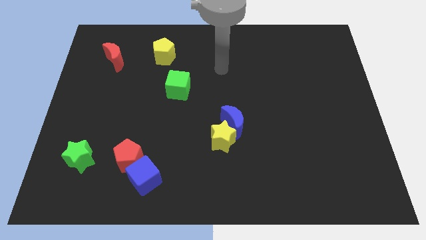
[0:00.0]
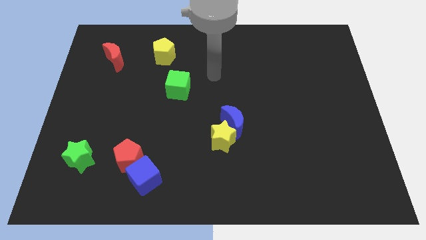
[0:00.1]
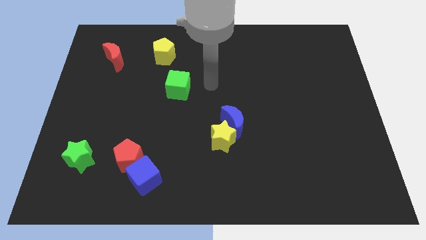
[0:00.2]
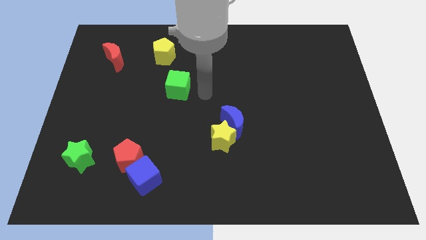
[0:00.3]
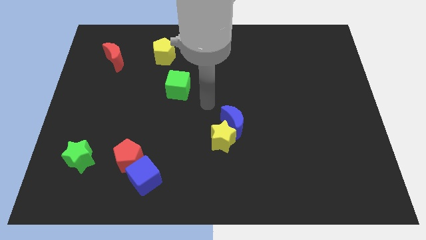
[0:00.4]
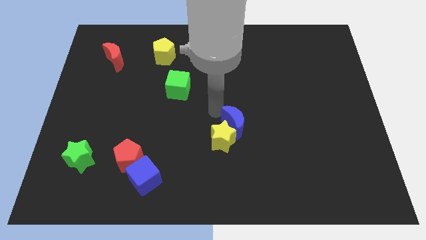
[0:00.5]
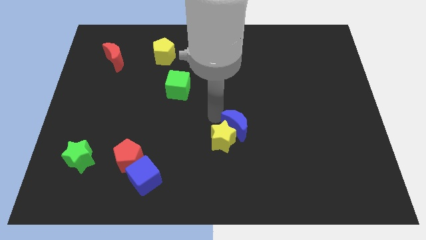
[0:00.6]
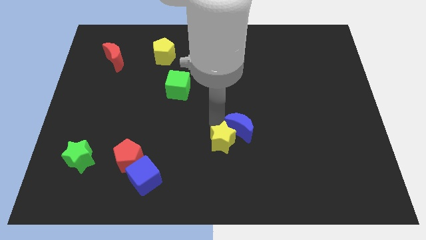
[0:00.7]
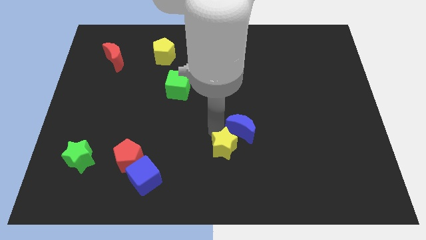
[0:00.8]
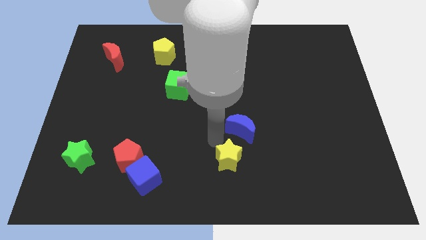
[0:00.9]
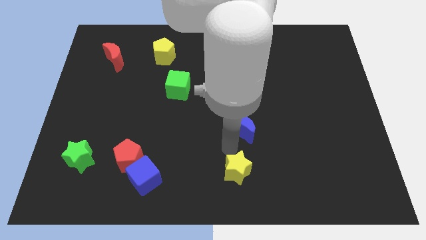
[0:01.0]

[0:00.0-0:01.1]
separate the blue moon from the yellow star

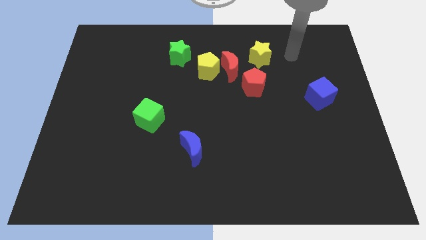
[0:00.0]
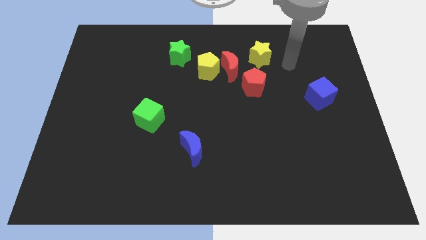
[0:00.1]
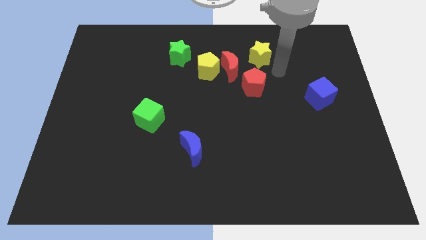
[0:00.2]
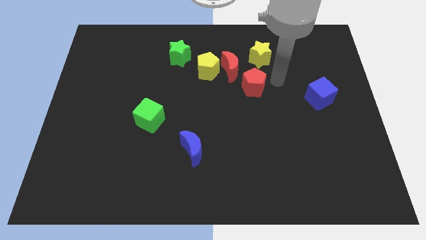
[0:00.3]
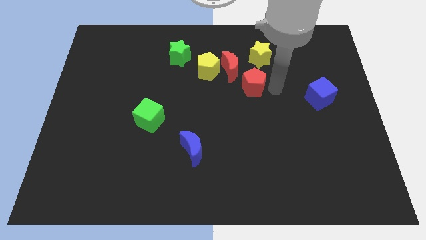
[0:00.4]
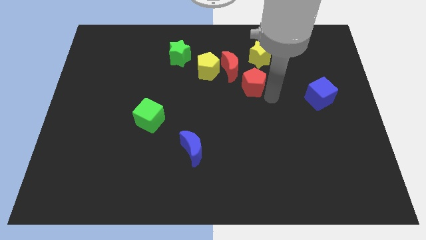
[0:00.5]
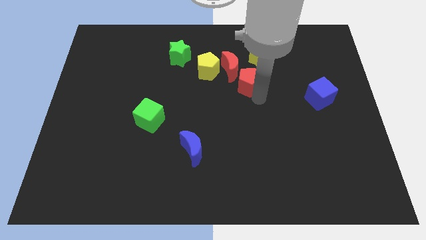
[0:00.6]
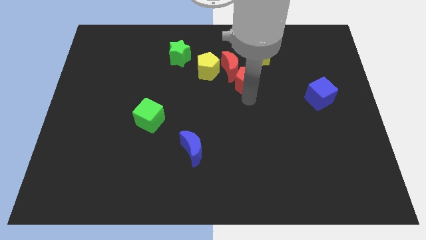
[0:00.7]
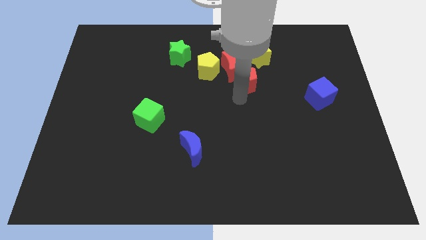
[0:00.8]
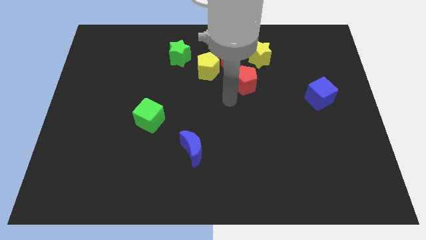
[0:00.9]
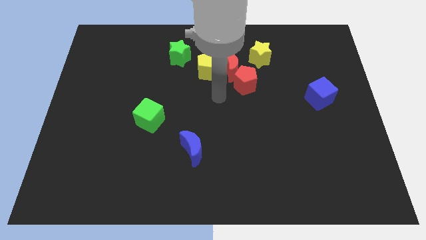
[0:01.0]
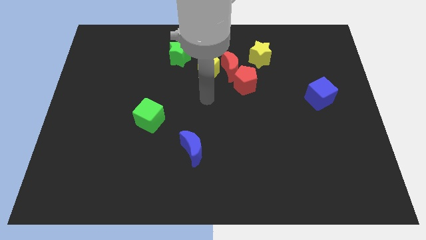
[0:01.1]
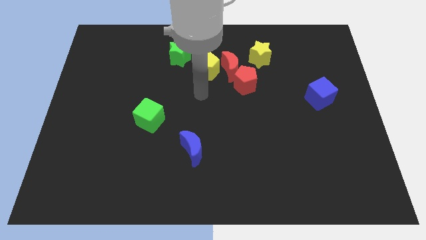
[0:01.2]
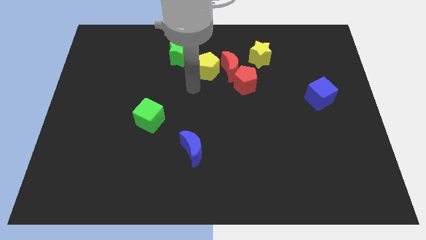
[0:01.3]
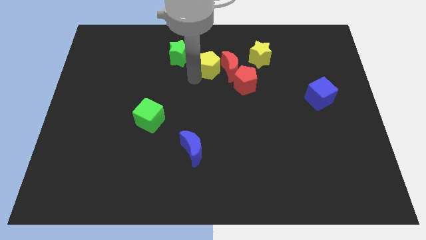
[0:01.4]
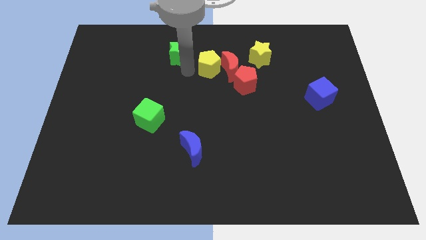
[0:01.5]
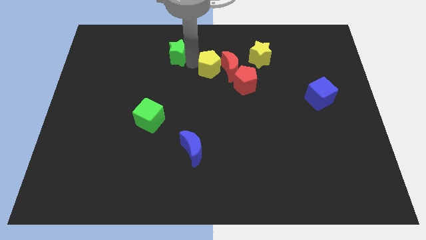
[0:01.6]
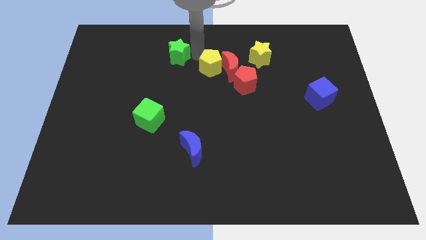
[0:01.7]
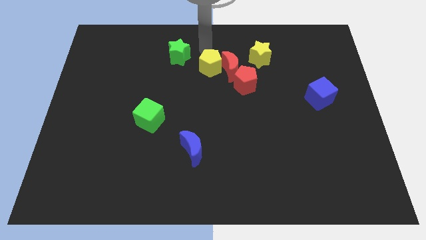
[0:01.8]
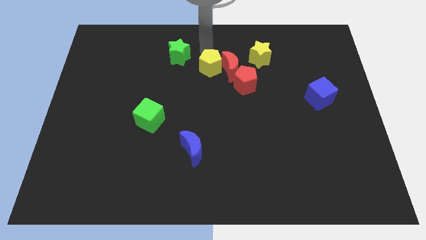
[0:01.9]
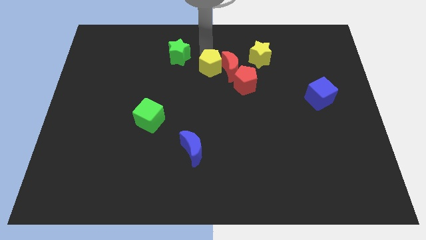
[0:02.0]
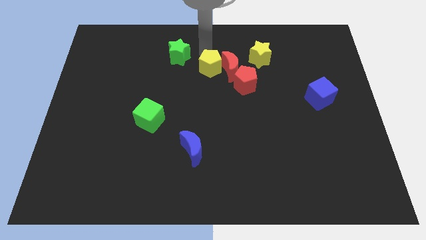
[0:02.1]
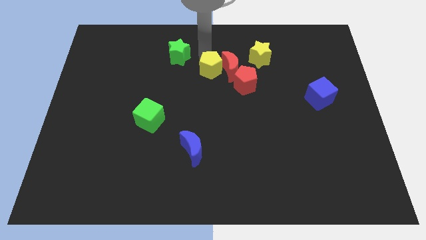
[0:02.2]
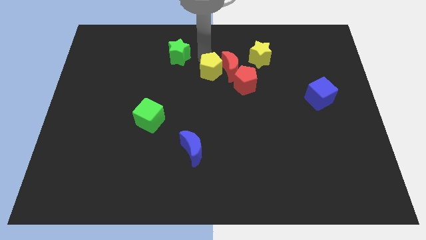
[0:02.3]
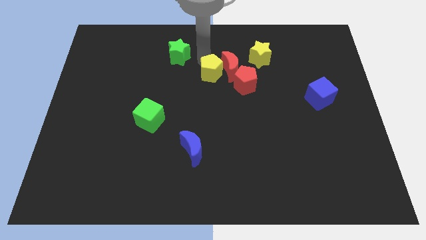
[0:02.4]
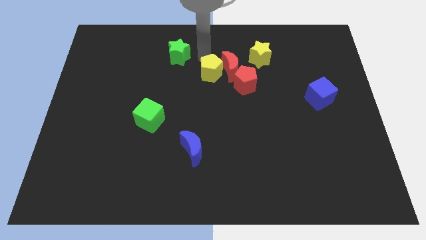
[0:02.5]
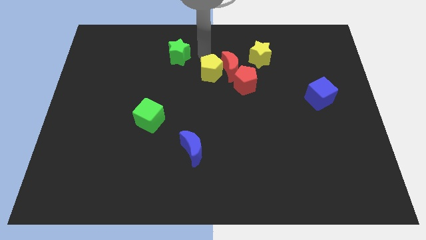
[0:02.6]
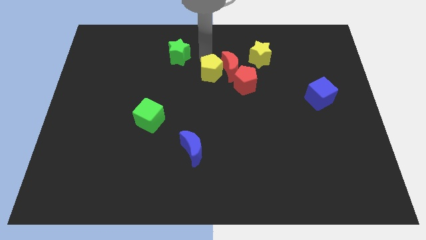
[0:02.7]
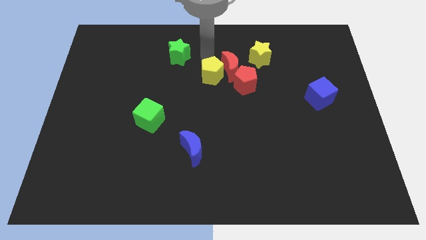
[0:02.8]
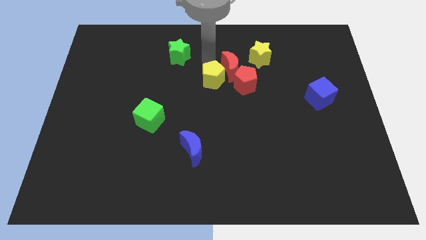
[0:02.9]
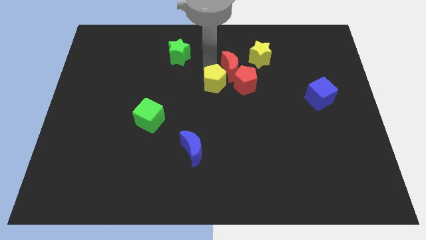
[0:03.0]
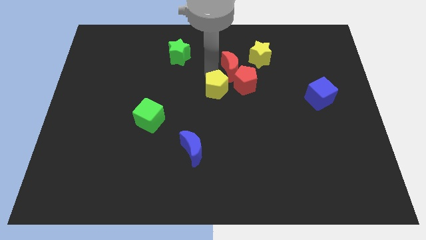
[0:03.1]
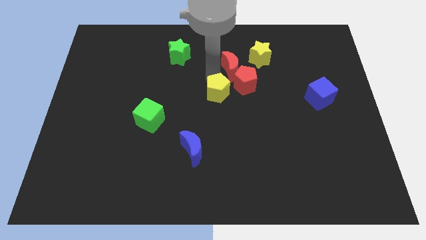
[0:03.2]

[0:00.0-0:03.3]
pull the yellow pentagon apart from the red moon and green star

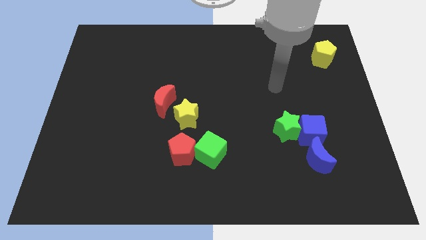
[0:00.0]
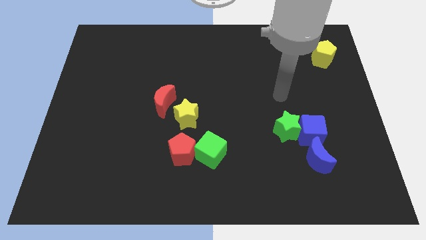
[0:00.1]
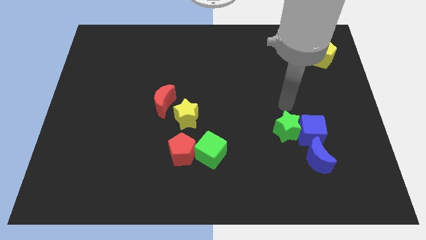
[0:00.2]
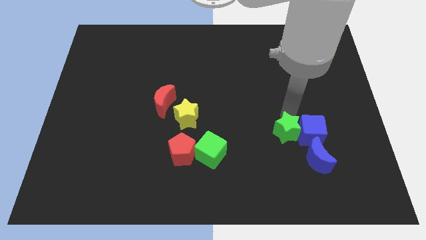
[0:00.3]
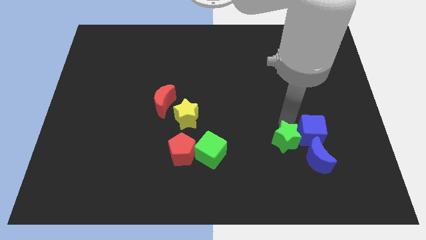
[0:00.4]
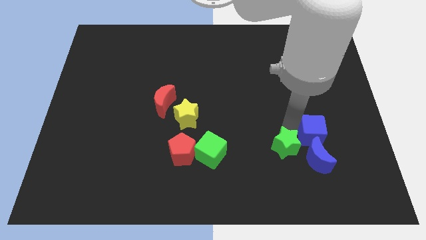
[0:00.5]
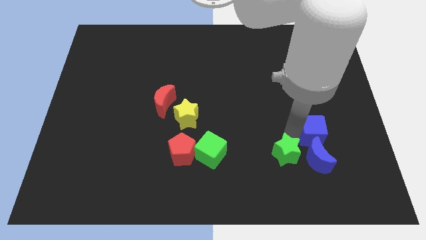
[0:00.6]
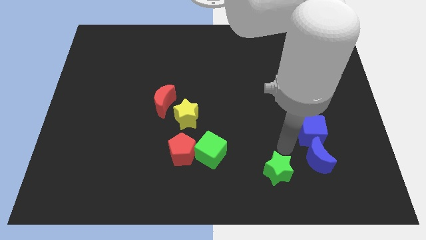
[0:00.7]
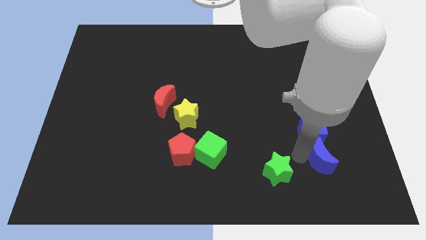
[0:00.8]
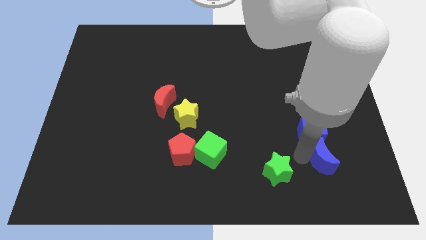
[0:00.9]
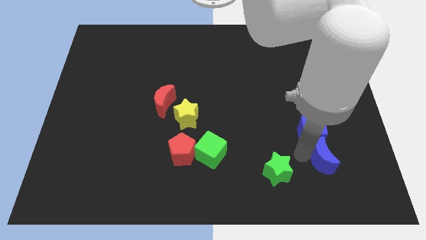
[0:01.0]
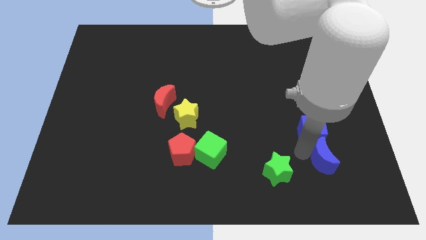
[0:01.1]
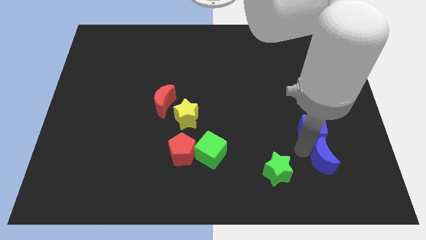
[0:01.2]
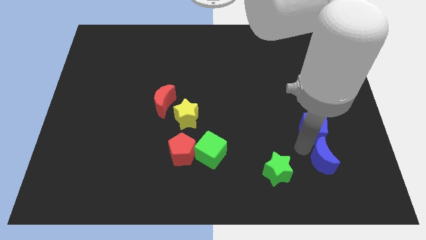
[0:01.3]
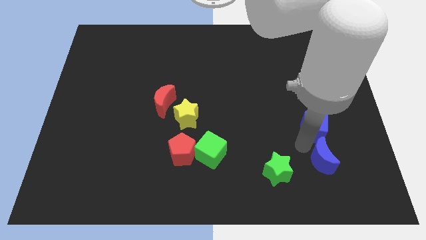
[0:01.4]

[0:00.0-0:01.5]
move the blue cube away from the green star and blue moon

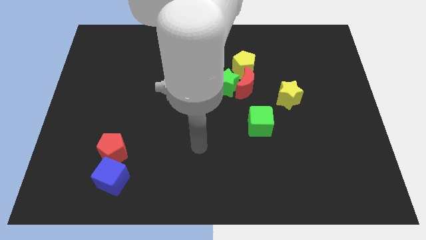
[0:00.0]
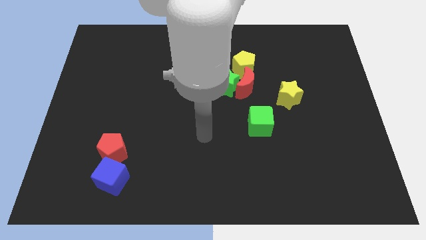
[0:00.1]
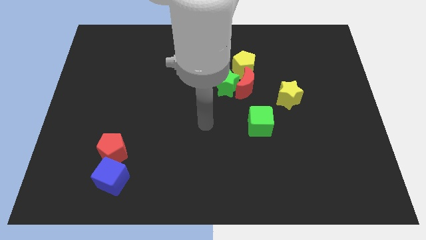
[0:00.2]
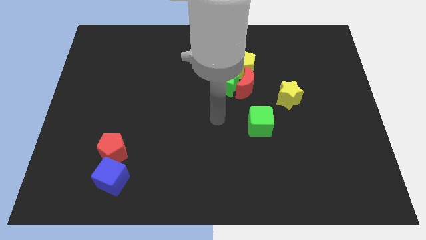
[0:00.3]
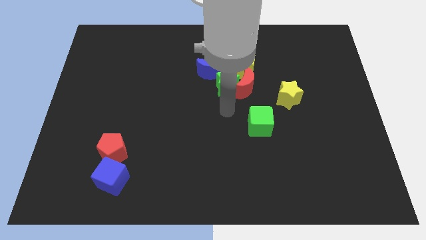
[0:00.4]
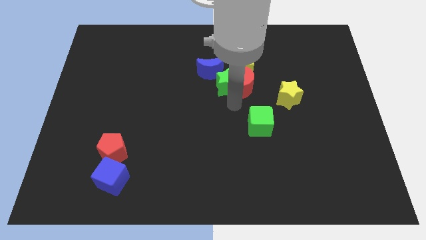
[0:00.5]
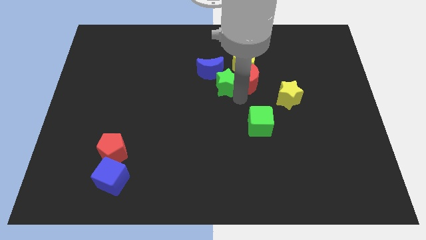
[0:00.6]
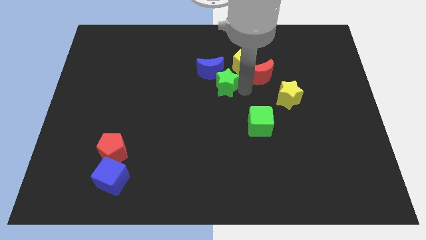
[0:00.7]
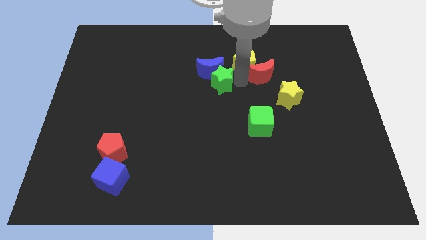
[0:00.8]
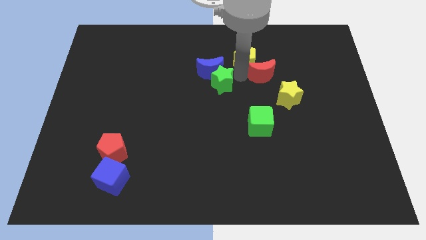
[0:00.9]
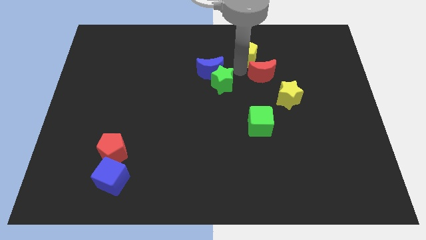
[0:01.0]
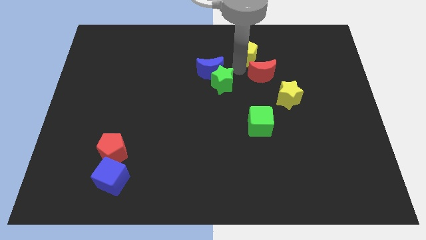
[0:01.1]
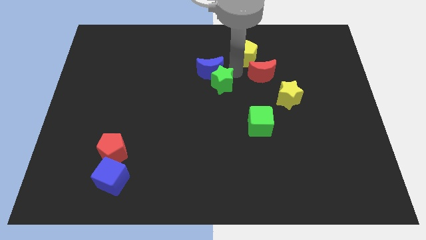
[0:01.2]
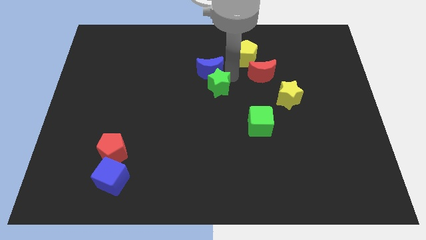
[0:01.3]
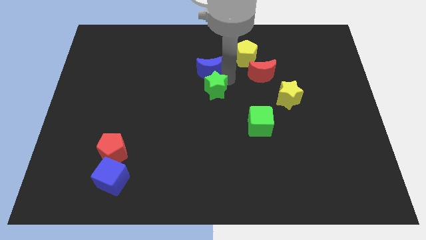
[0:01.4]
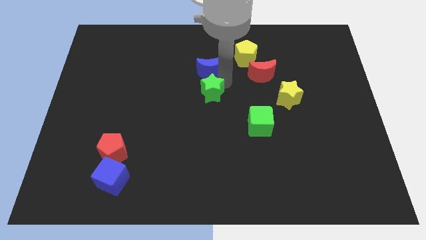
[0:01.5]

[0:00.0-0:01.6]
pull the green star apart from the red moon, blue moon, and yellow pentagon

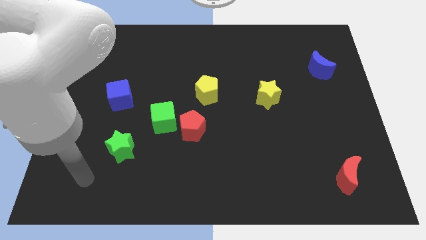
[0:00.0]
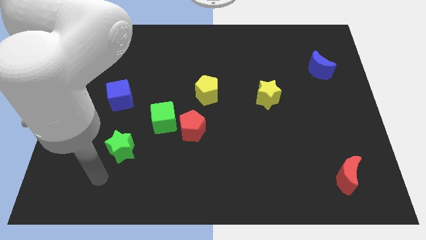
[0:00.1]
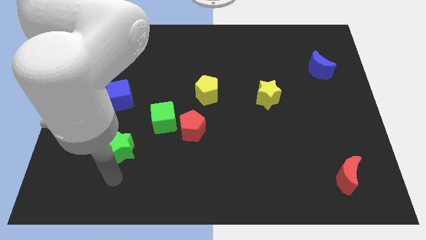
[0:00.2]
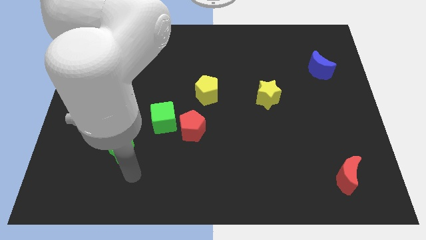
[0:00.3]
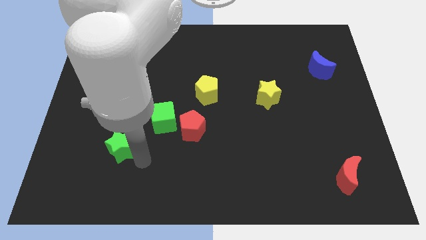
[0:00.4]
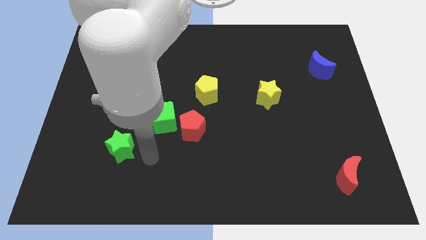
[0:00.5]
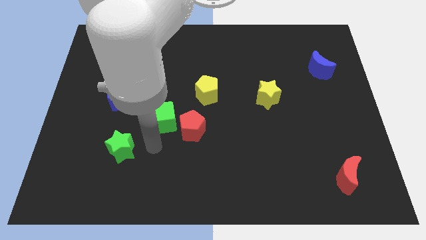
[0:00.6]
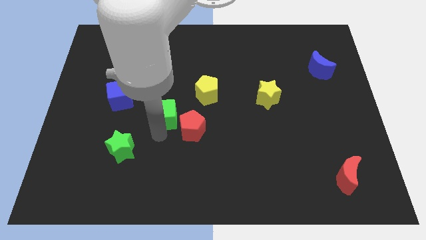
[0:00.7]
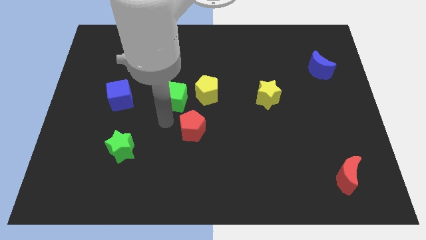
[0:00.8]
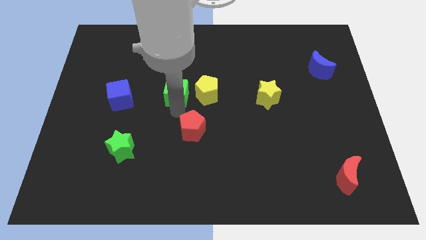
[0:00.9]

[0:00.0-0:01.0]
separate the red pentagon from the green cube

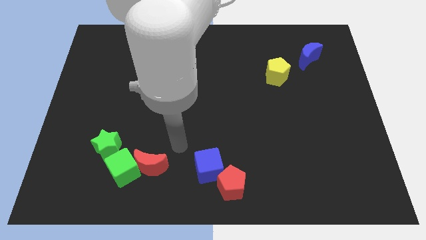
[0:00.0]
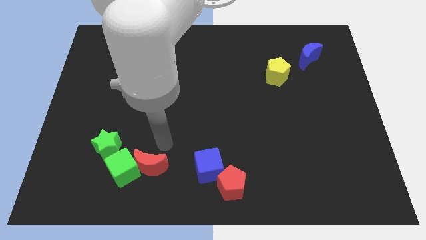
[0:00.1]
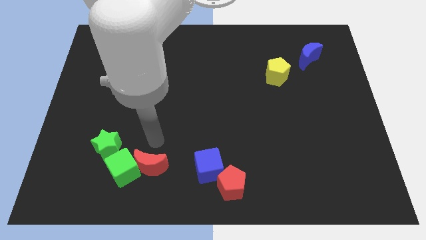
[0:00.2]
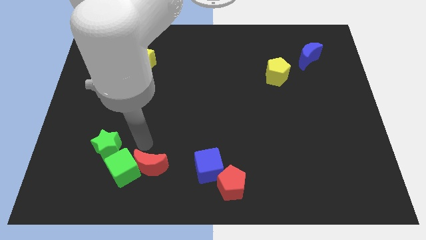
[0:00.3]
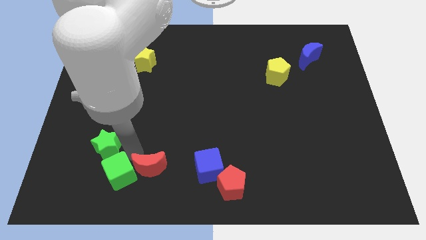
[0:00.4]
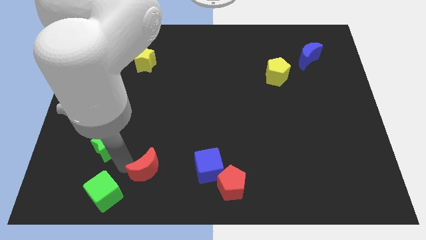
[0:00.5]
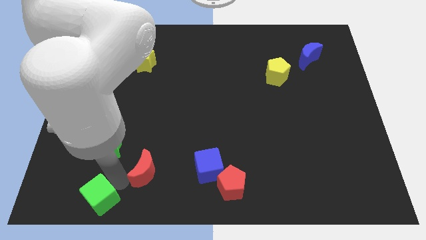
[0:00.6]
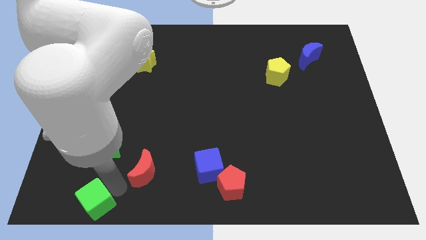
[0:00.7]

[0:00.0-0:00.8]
separate the red moon from the green cube
